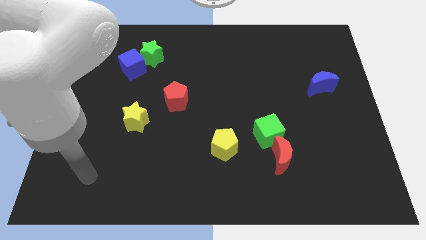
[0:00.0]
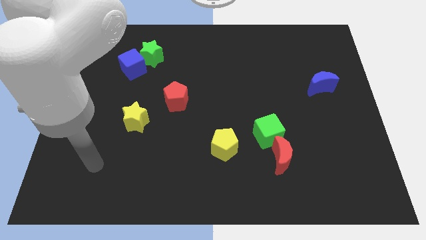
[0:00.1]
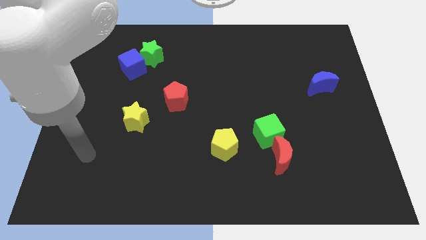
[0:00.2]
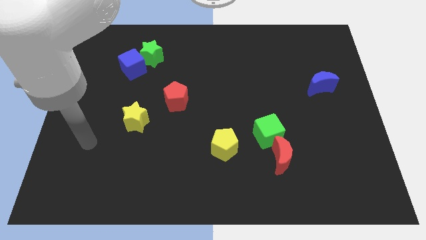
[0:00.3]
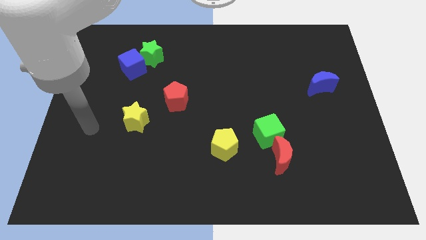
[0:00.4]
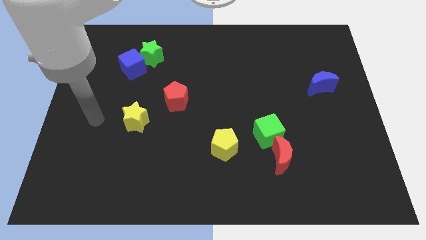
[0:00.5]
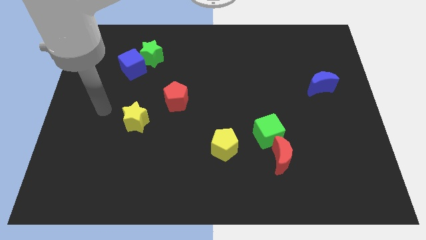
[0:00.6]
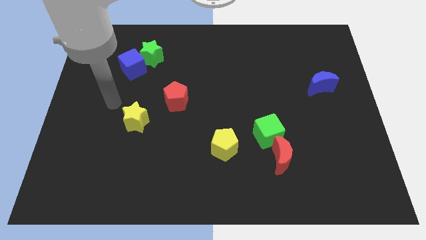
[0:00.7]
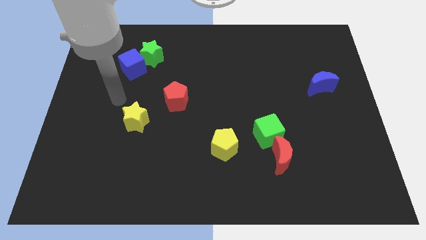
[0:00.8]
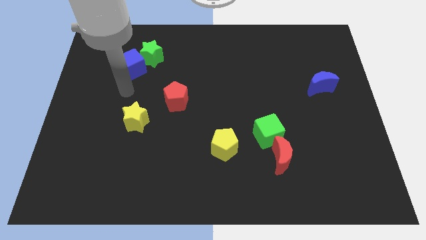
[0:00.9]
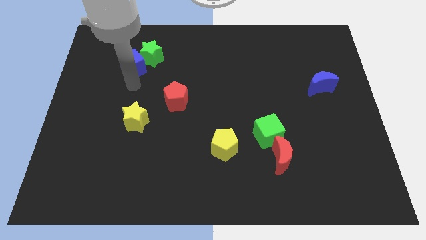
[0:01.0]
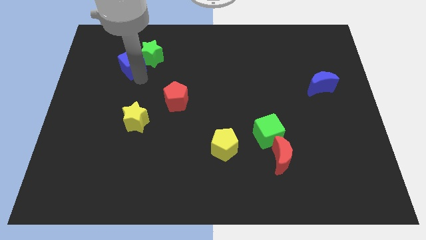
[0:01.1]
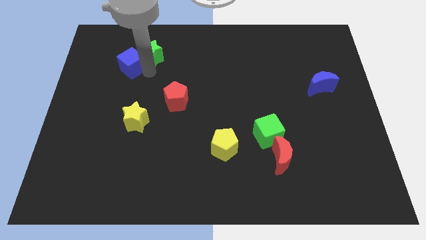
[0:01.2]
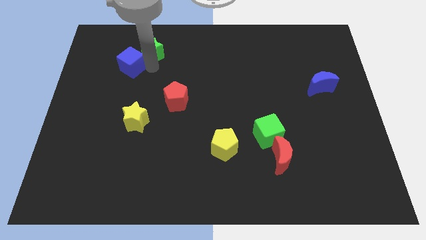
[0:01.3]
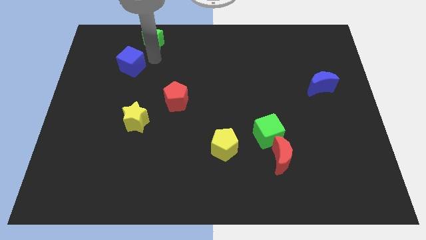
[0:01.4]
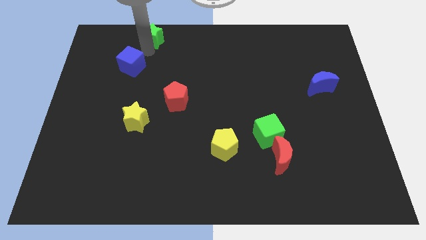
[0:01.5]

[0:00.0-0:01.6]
pull the blue cube apart from the green star

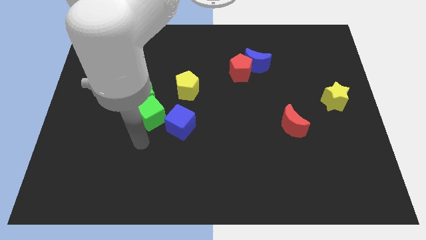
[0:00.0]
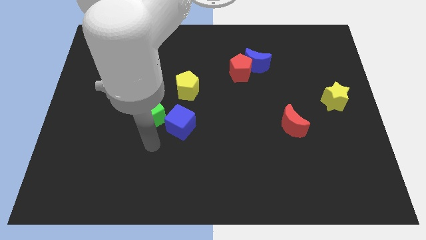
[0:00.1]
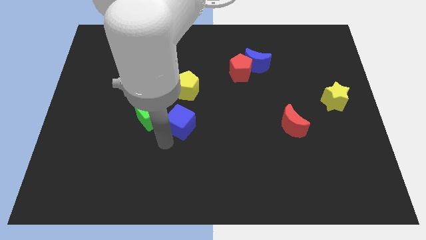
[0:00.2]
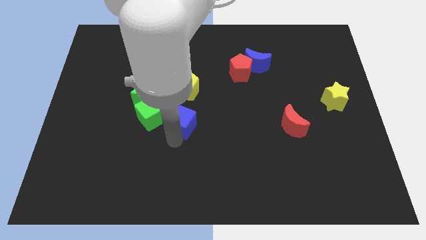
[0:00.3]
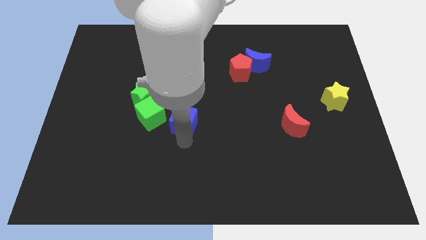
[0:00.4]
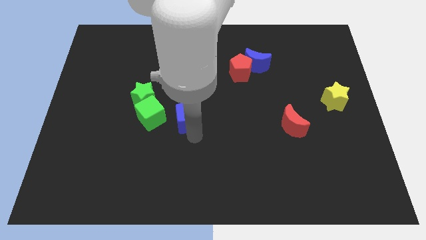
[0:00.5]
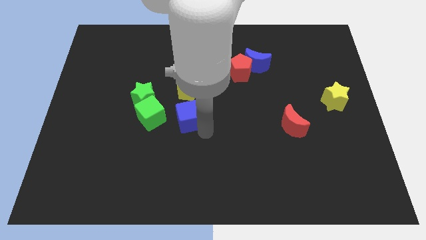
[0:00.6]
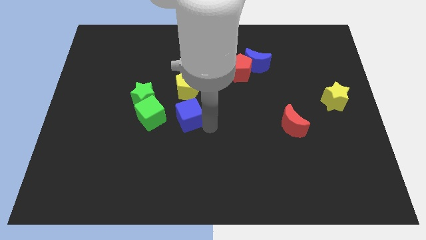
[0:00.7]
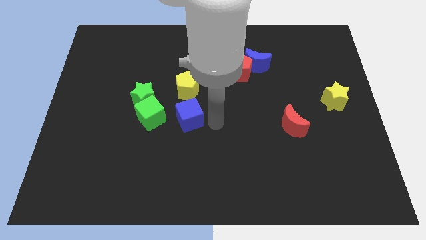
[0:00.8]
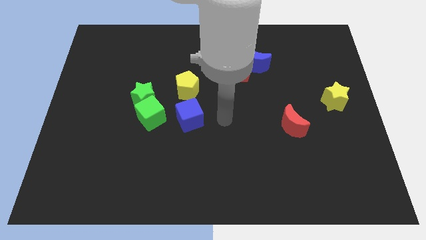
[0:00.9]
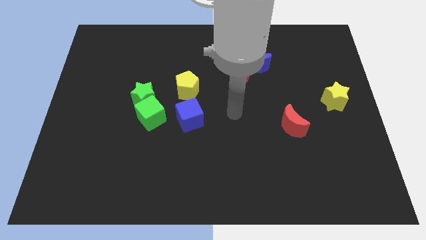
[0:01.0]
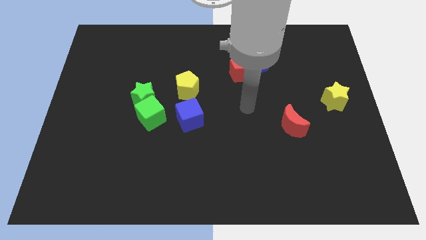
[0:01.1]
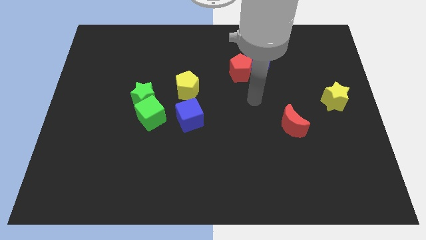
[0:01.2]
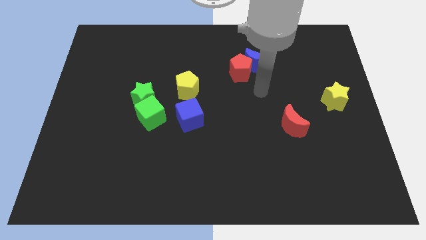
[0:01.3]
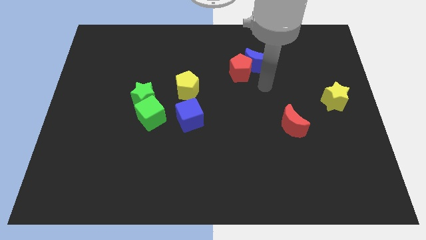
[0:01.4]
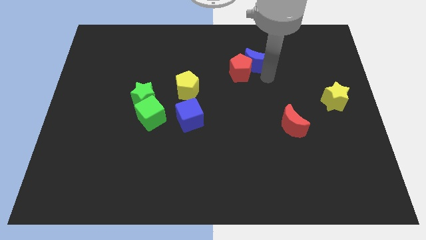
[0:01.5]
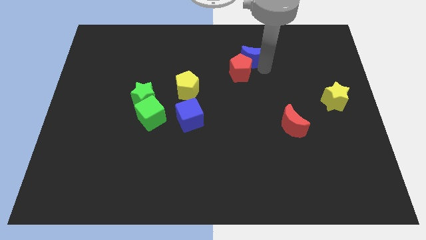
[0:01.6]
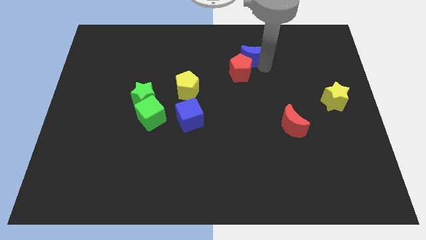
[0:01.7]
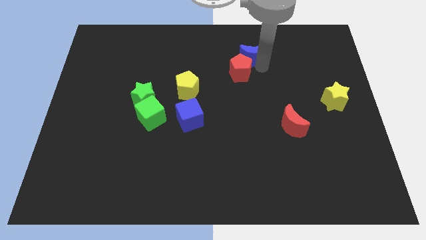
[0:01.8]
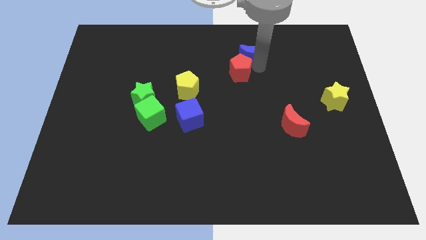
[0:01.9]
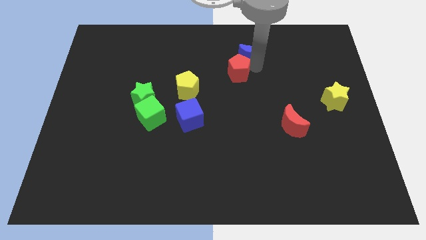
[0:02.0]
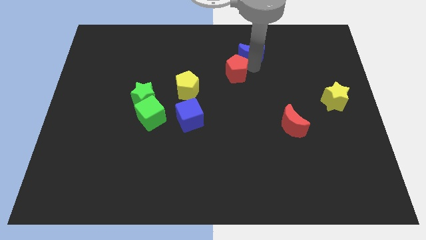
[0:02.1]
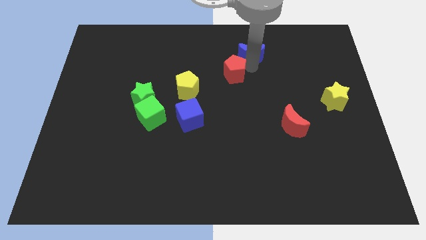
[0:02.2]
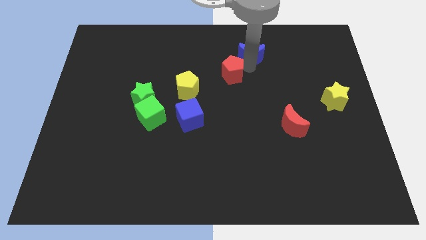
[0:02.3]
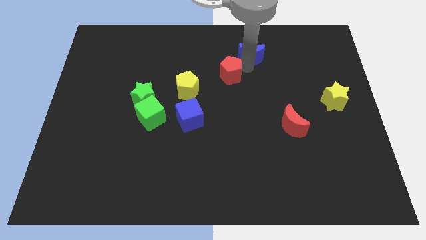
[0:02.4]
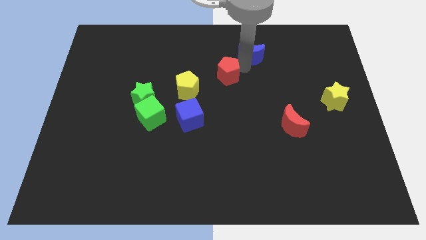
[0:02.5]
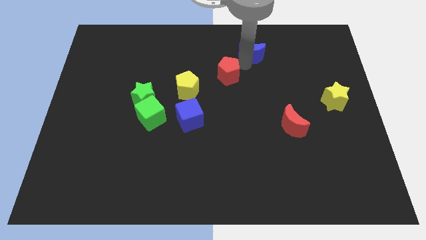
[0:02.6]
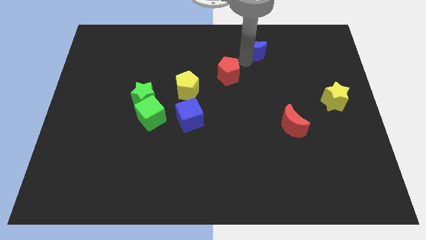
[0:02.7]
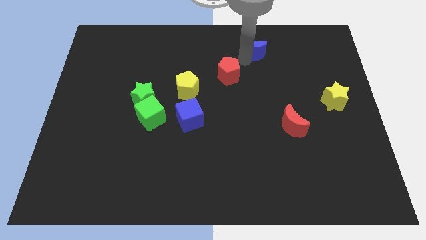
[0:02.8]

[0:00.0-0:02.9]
pull the red pentagon apart from the blue moon

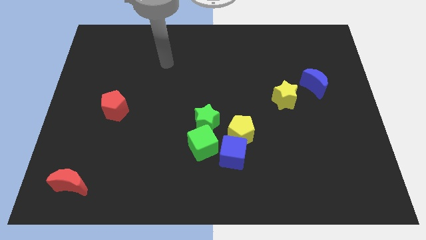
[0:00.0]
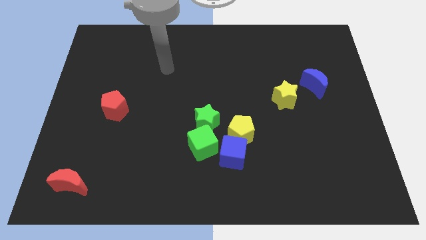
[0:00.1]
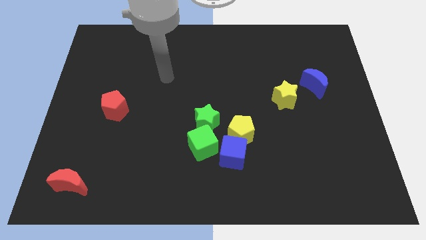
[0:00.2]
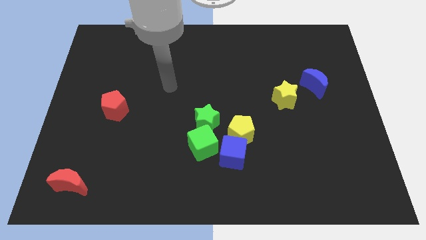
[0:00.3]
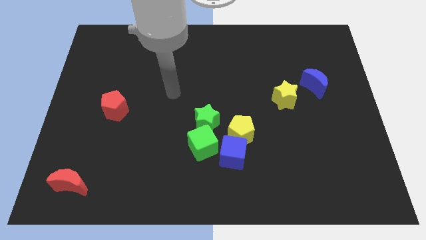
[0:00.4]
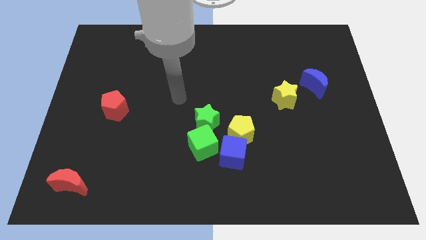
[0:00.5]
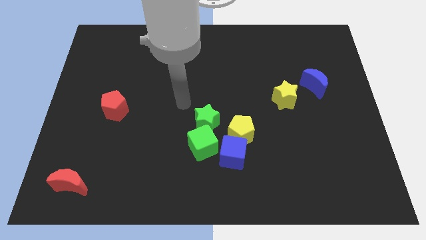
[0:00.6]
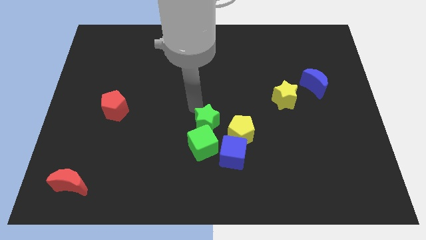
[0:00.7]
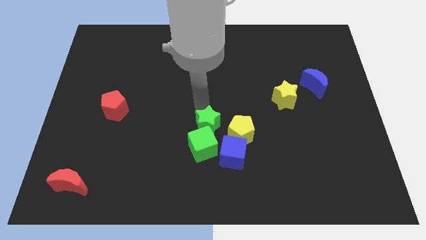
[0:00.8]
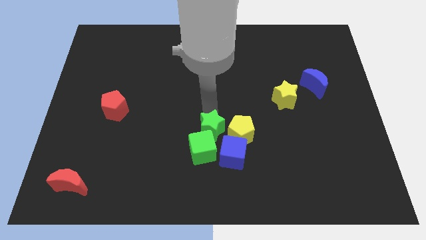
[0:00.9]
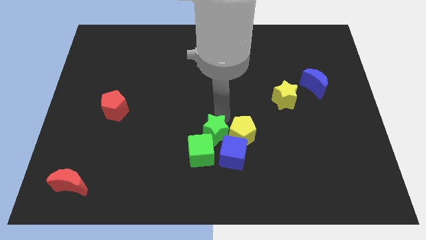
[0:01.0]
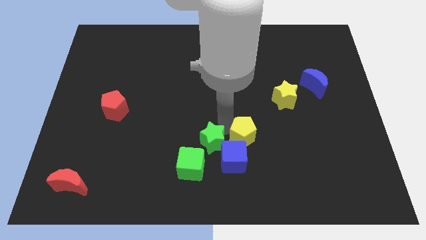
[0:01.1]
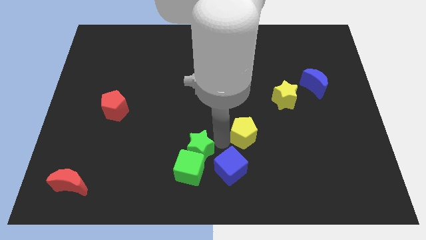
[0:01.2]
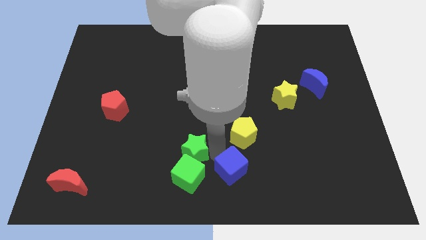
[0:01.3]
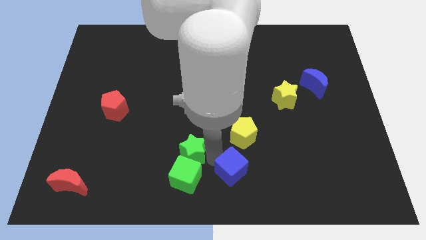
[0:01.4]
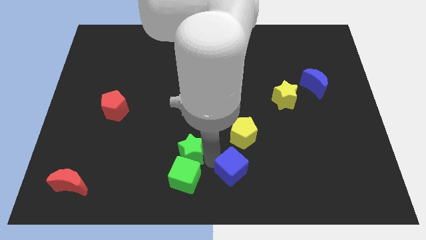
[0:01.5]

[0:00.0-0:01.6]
pull the green cube apart from the green star, blue cube, and yellow pentagon

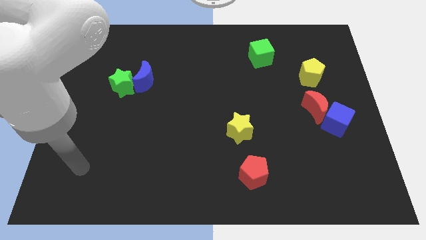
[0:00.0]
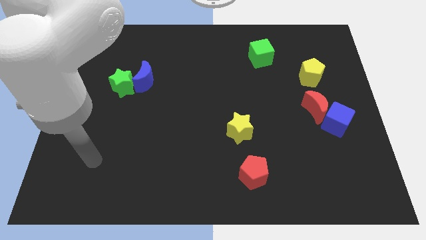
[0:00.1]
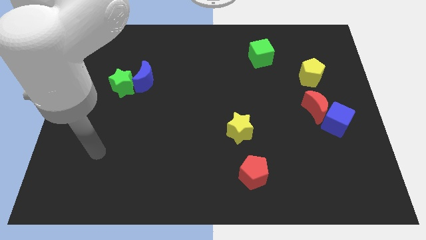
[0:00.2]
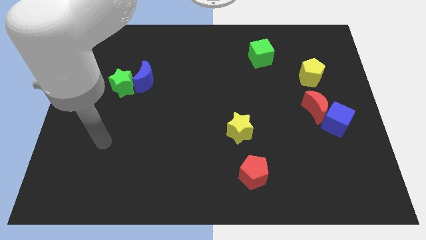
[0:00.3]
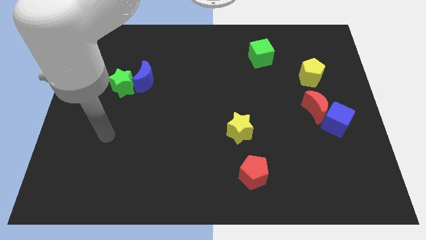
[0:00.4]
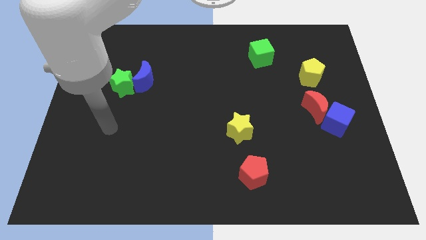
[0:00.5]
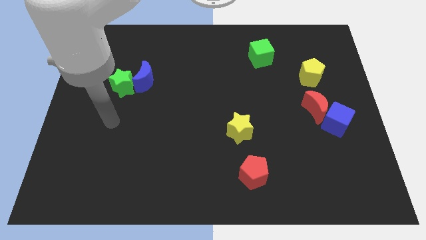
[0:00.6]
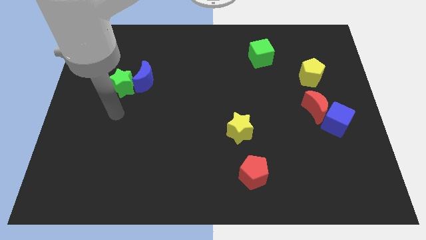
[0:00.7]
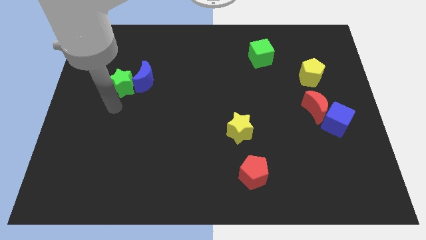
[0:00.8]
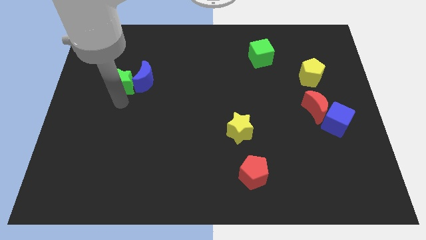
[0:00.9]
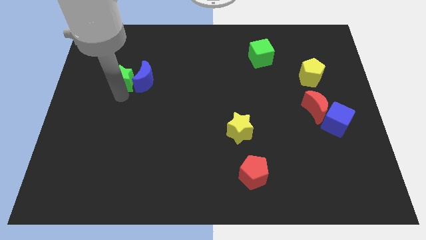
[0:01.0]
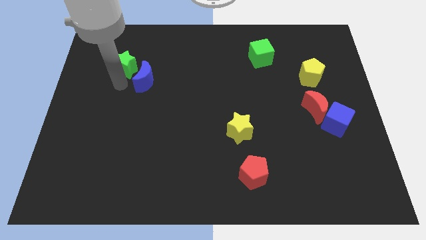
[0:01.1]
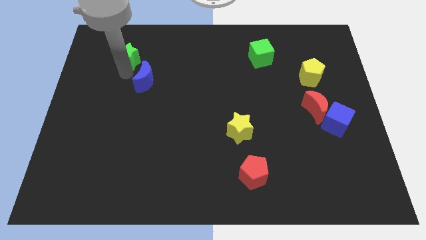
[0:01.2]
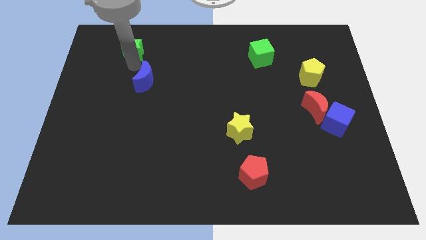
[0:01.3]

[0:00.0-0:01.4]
move the blue moon away from the green star

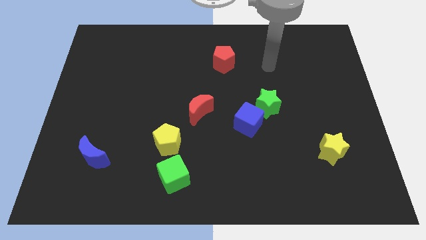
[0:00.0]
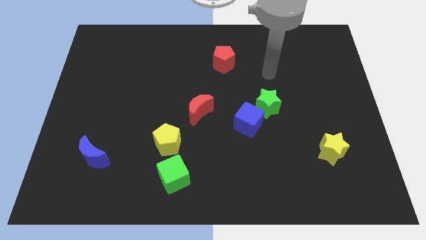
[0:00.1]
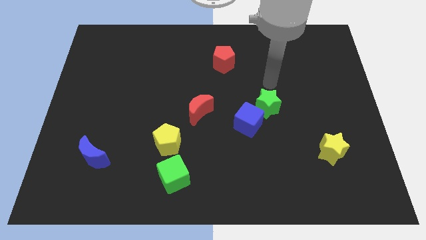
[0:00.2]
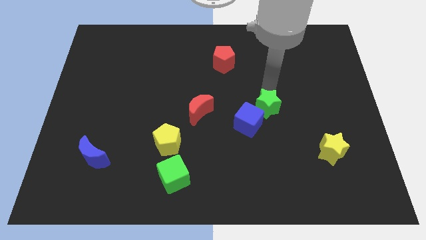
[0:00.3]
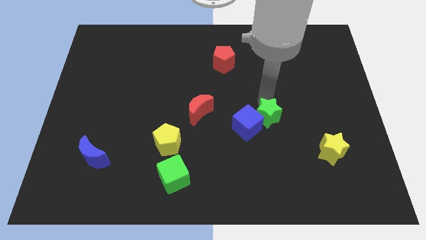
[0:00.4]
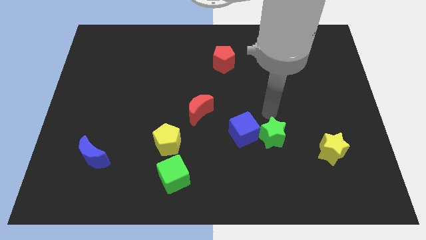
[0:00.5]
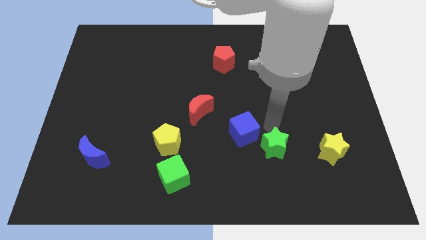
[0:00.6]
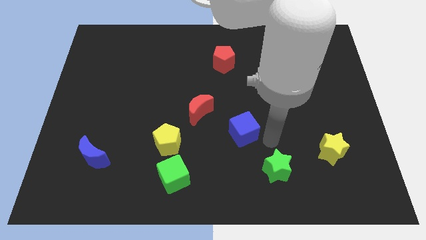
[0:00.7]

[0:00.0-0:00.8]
move the blue cube away from the green star

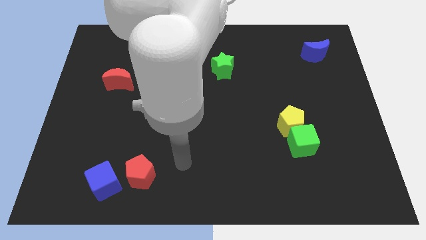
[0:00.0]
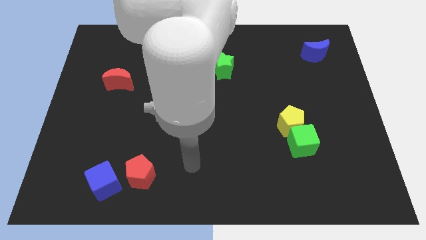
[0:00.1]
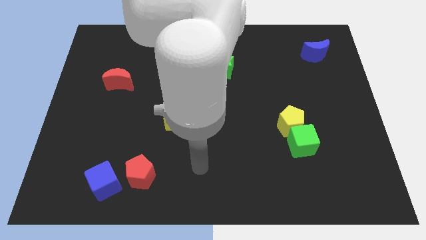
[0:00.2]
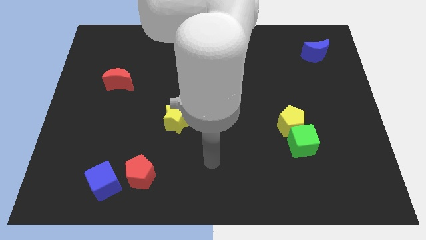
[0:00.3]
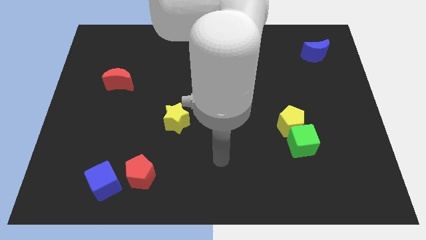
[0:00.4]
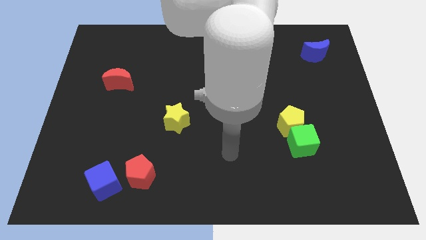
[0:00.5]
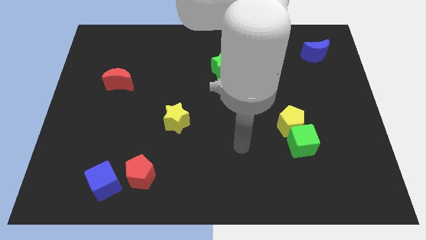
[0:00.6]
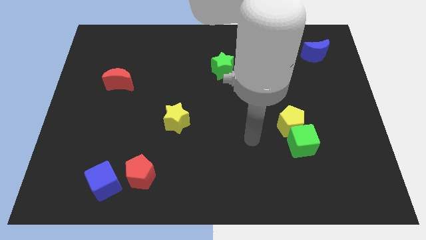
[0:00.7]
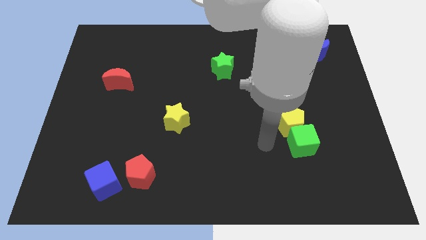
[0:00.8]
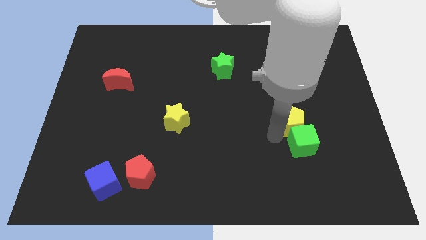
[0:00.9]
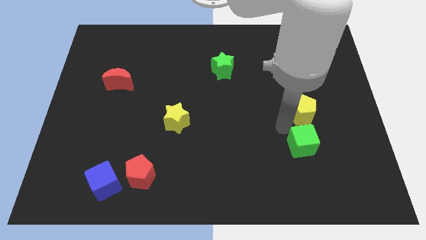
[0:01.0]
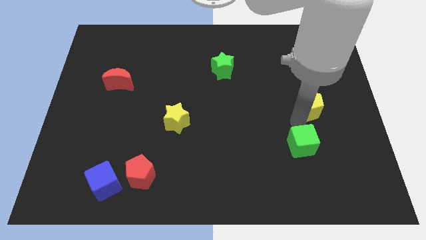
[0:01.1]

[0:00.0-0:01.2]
move the green cube away from the yellow pentagon
